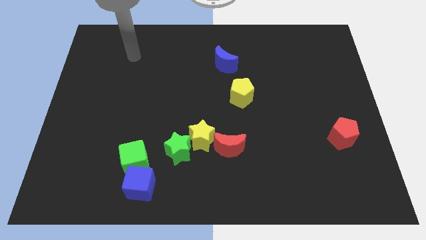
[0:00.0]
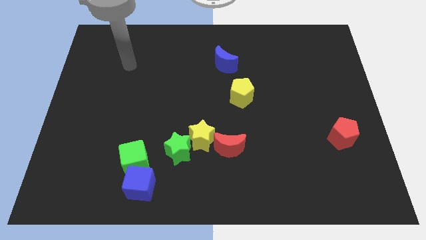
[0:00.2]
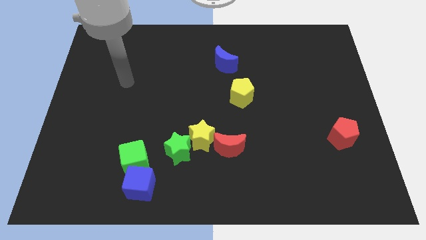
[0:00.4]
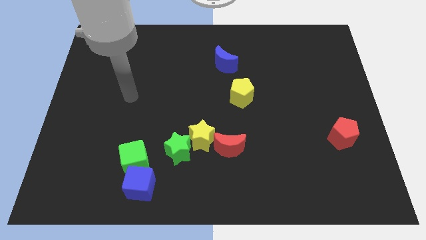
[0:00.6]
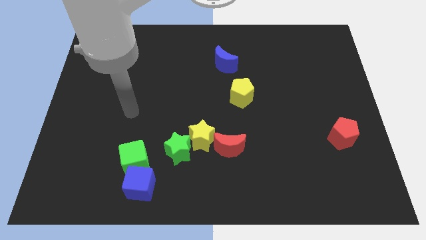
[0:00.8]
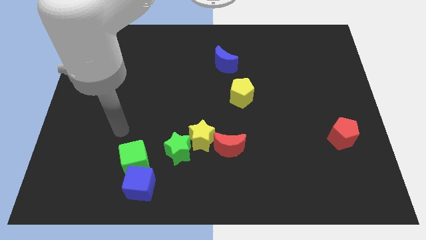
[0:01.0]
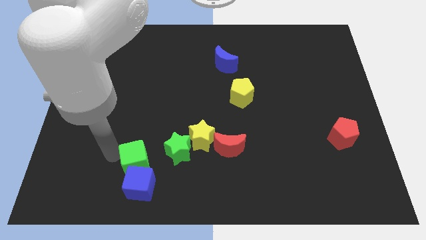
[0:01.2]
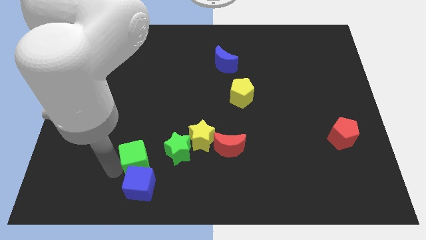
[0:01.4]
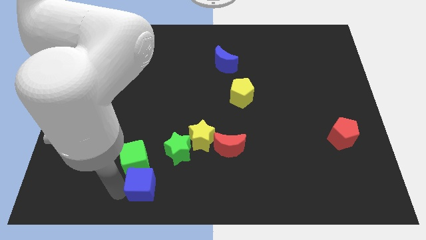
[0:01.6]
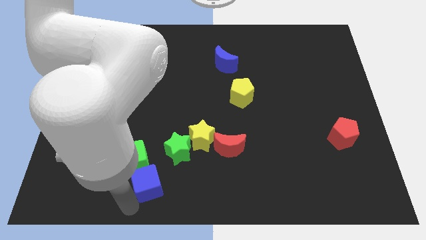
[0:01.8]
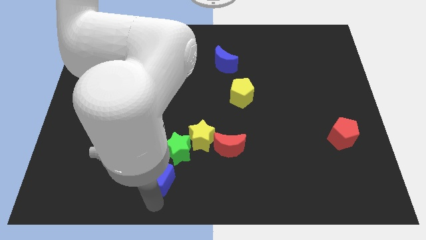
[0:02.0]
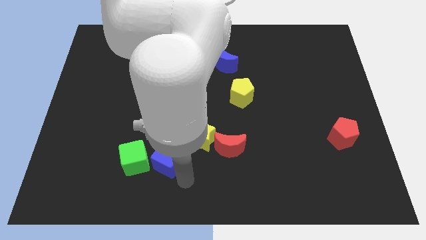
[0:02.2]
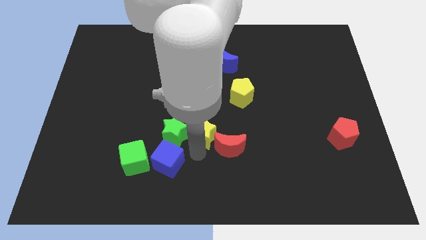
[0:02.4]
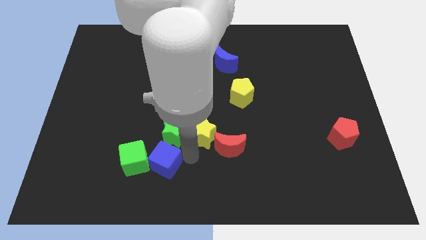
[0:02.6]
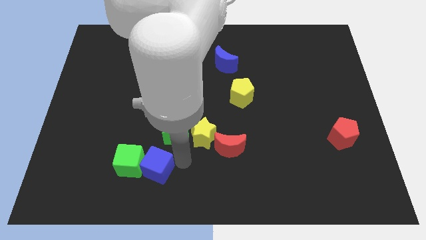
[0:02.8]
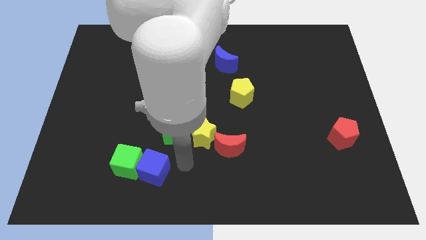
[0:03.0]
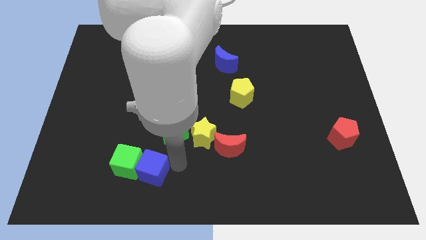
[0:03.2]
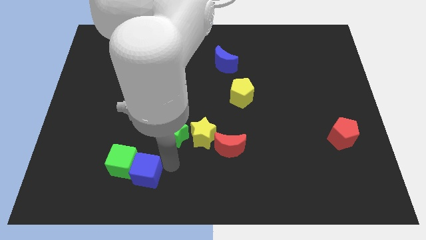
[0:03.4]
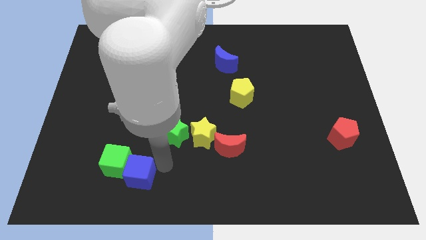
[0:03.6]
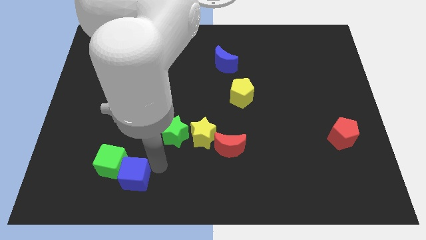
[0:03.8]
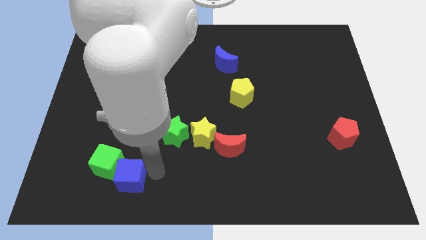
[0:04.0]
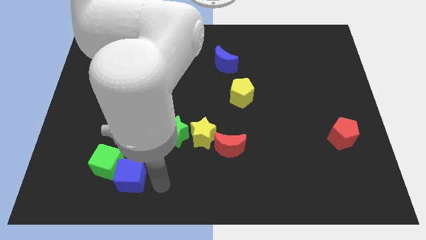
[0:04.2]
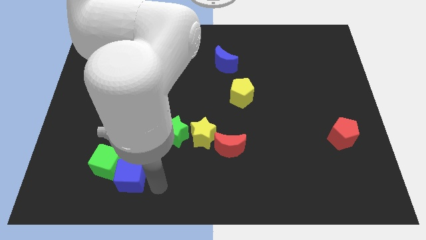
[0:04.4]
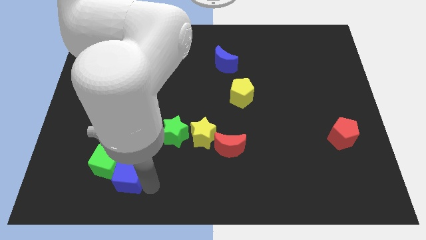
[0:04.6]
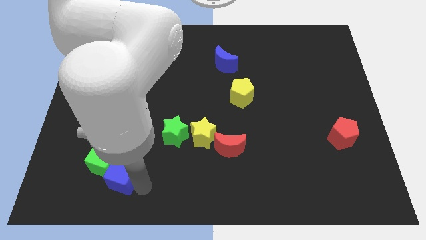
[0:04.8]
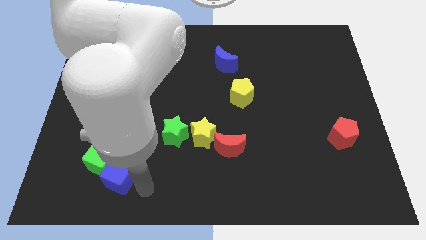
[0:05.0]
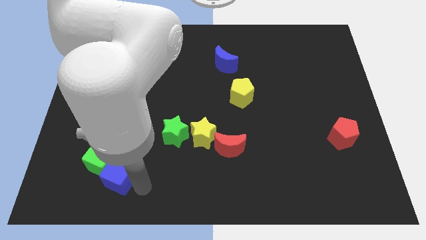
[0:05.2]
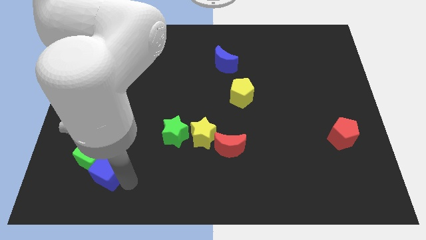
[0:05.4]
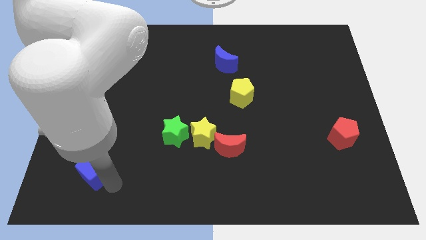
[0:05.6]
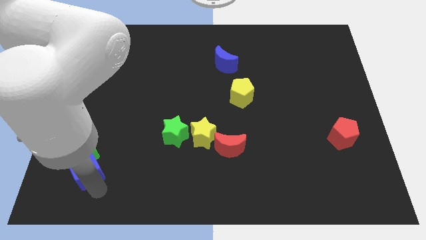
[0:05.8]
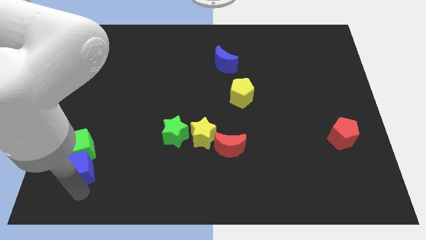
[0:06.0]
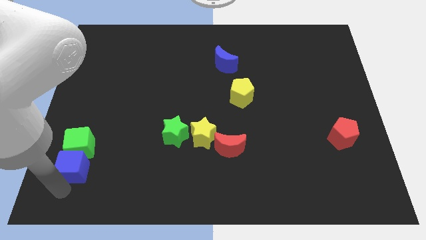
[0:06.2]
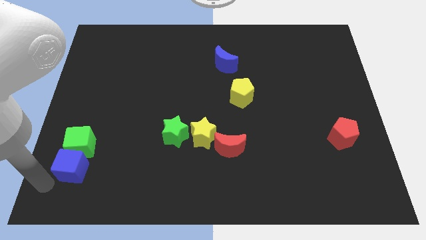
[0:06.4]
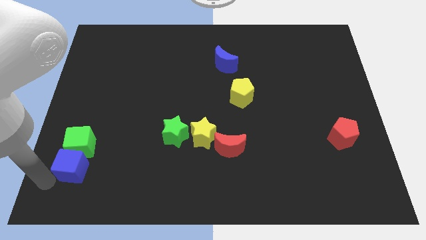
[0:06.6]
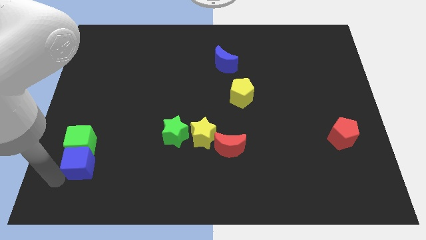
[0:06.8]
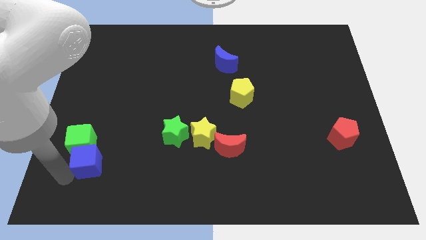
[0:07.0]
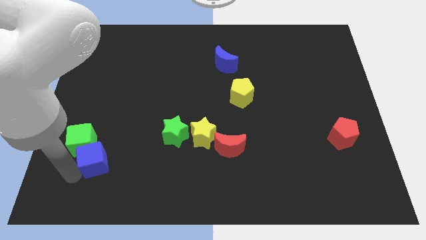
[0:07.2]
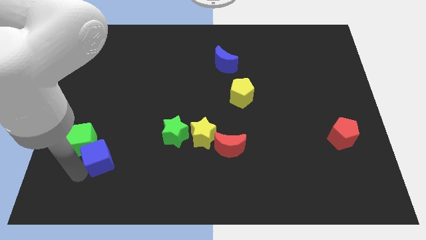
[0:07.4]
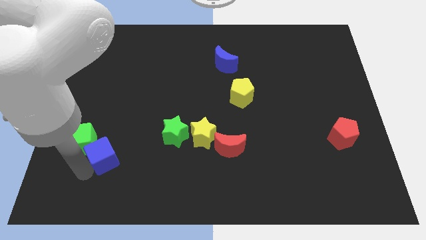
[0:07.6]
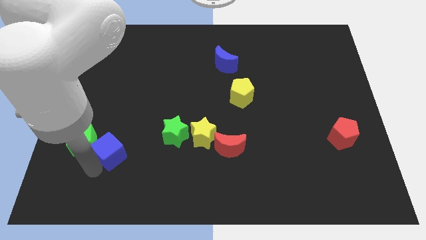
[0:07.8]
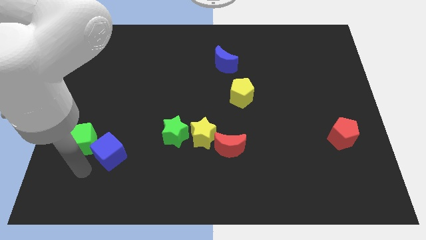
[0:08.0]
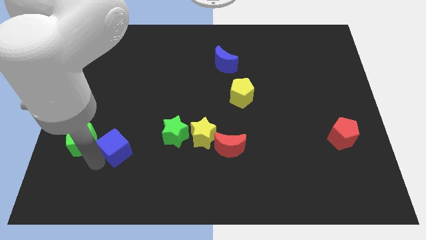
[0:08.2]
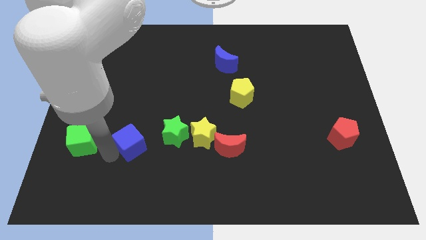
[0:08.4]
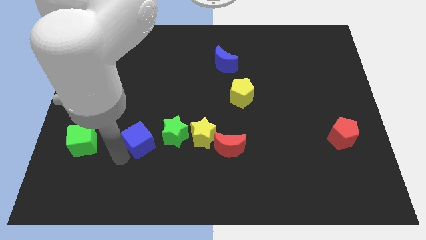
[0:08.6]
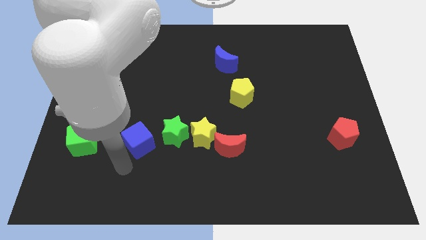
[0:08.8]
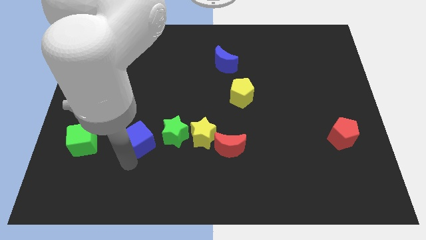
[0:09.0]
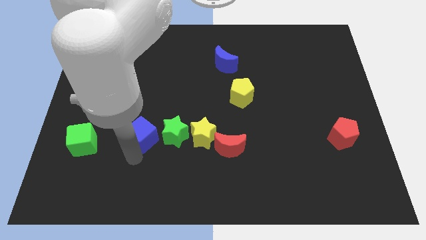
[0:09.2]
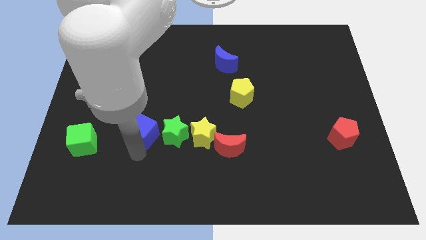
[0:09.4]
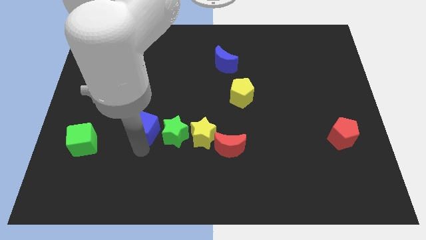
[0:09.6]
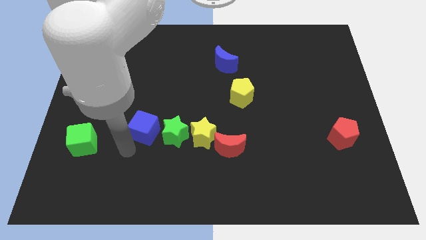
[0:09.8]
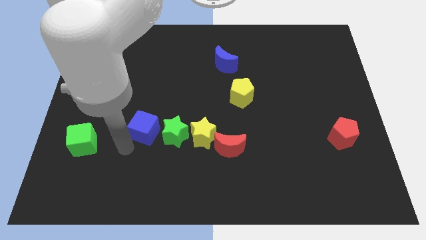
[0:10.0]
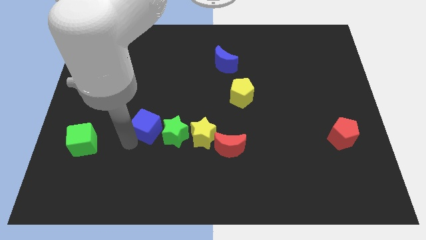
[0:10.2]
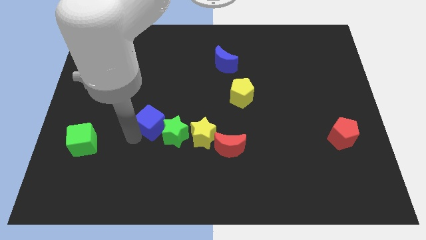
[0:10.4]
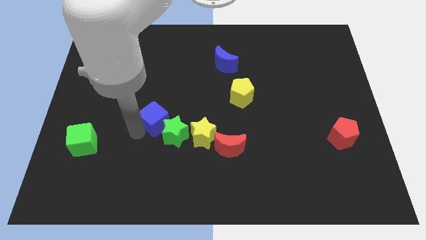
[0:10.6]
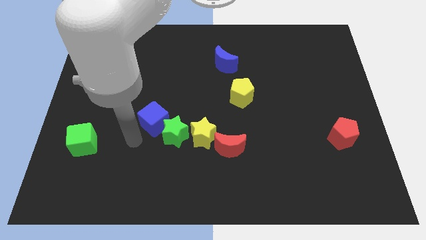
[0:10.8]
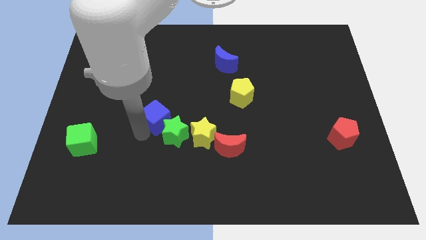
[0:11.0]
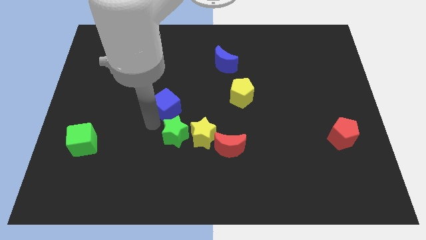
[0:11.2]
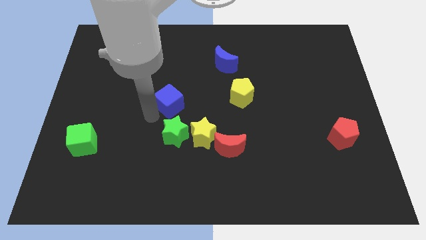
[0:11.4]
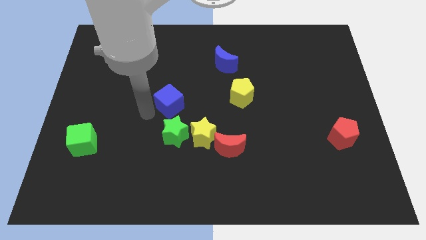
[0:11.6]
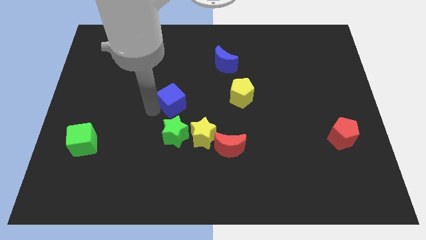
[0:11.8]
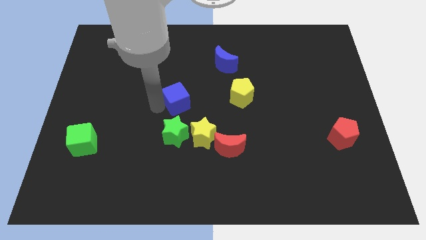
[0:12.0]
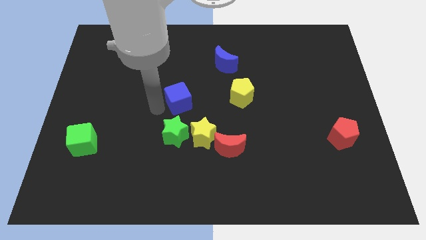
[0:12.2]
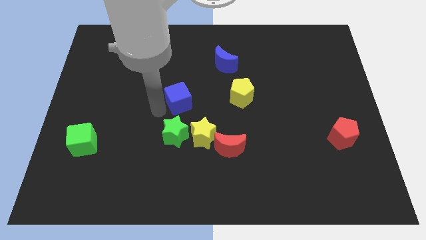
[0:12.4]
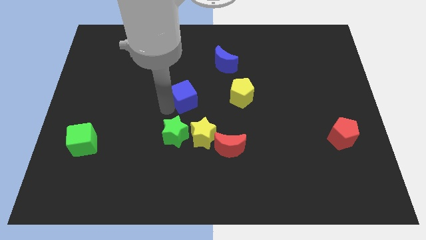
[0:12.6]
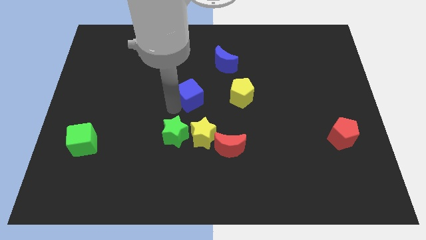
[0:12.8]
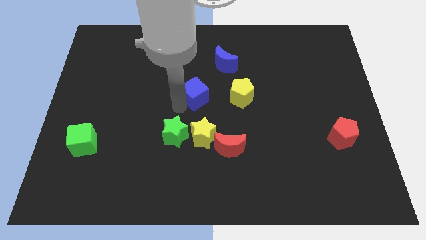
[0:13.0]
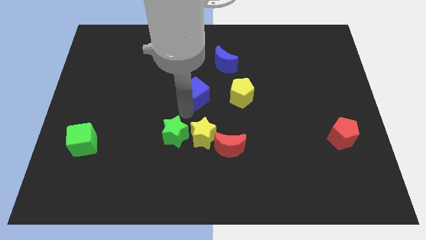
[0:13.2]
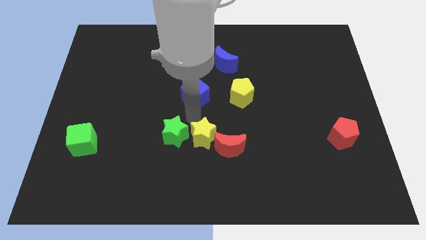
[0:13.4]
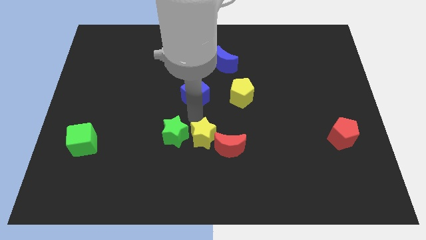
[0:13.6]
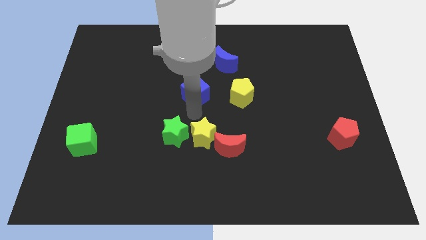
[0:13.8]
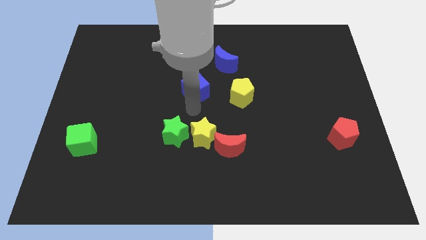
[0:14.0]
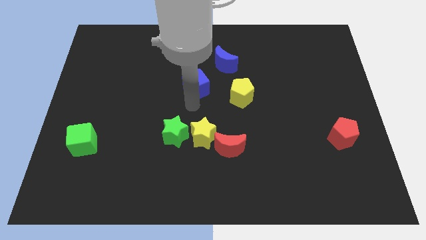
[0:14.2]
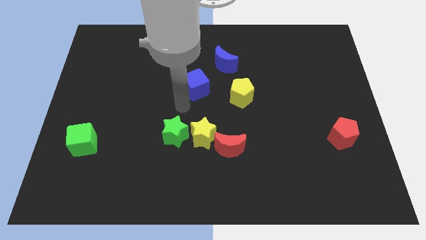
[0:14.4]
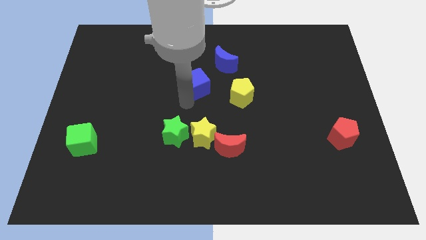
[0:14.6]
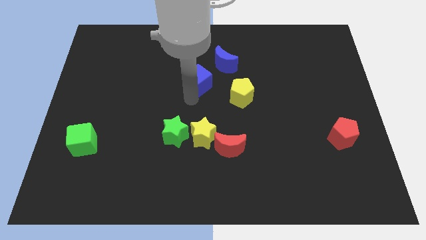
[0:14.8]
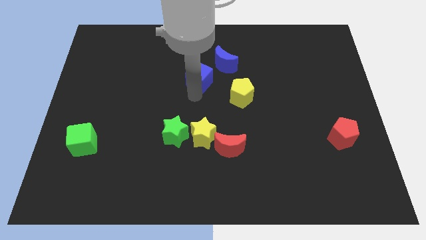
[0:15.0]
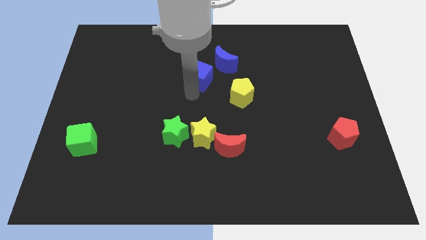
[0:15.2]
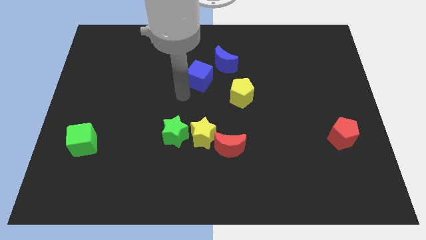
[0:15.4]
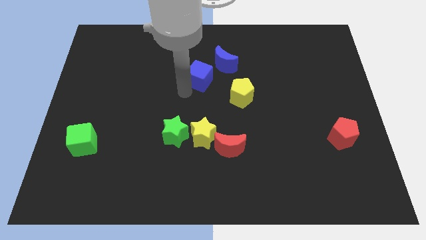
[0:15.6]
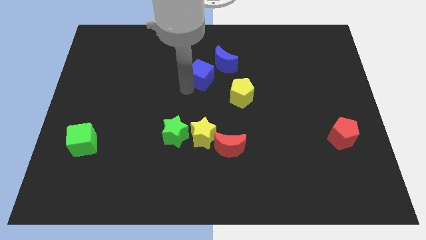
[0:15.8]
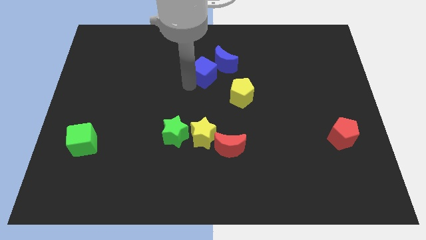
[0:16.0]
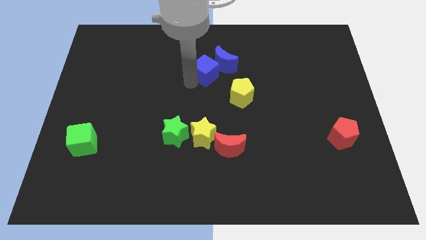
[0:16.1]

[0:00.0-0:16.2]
slide the blue cube towards the blue moon
